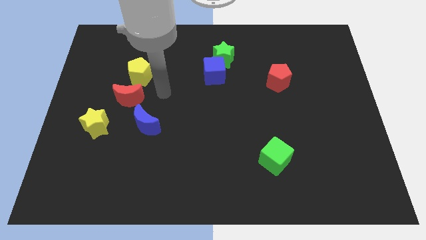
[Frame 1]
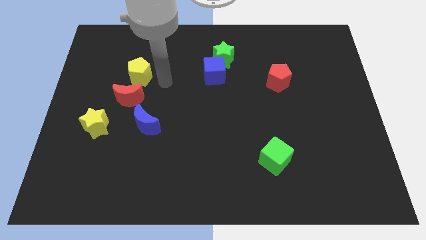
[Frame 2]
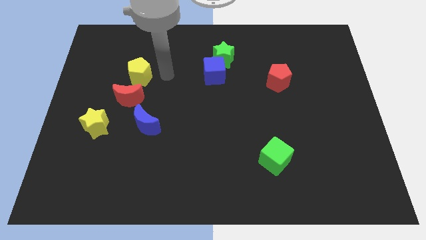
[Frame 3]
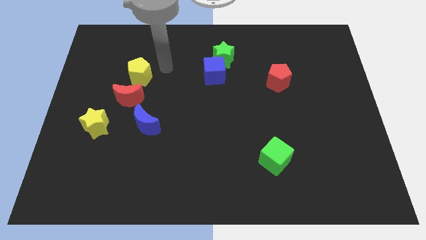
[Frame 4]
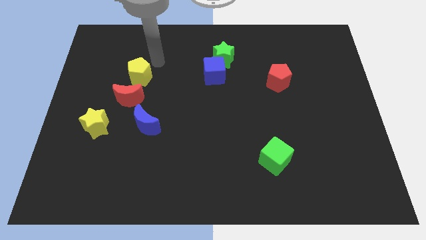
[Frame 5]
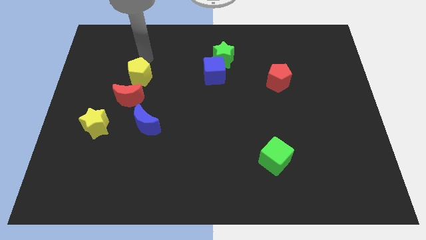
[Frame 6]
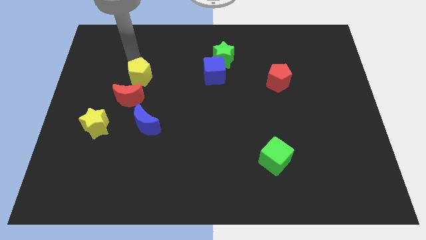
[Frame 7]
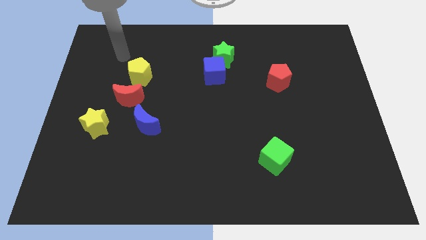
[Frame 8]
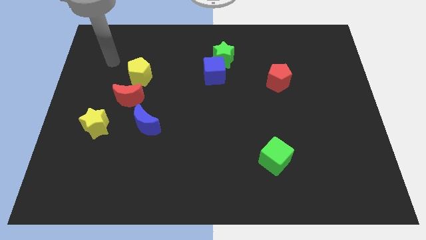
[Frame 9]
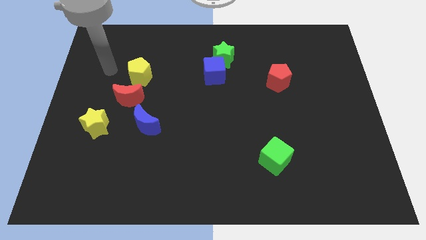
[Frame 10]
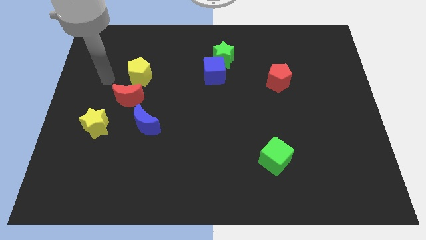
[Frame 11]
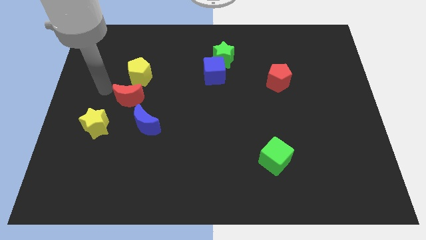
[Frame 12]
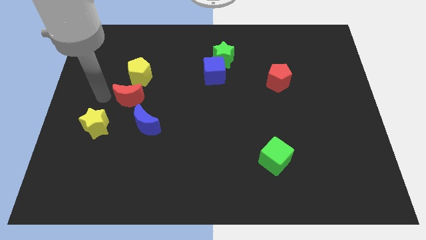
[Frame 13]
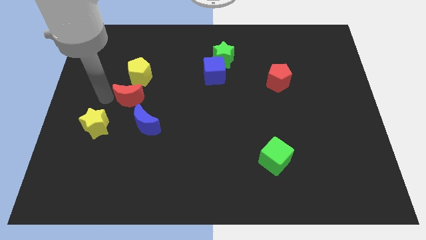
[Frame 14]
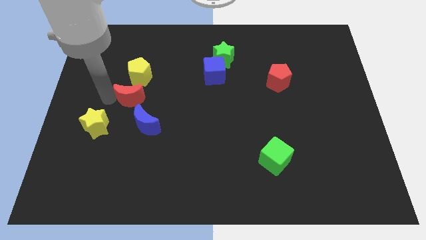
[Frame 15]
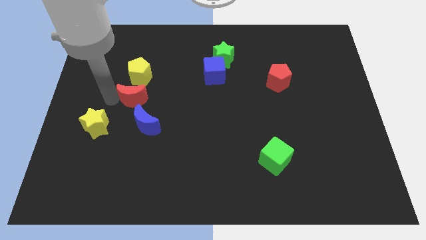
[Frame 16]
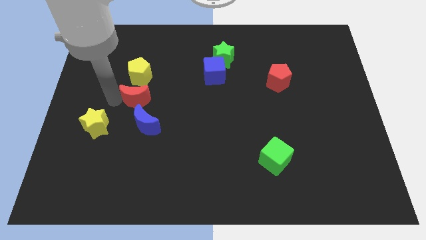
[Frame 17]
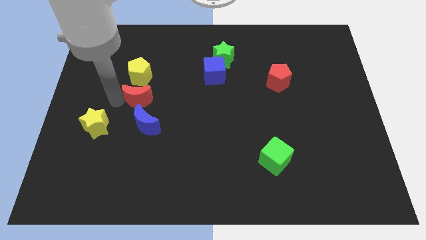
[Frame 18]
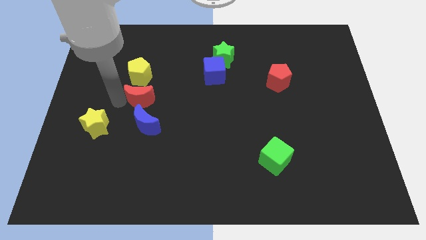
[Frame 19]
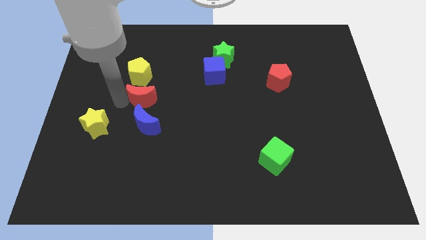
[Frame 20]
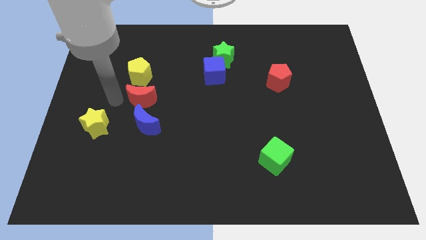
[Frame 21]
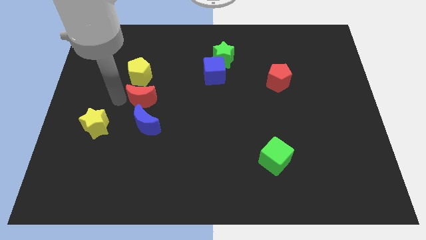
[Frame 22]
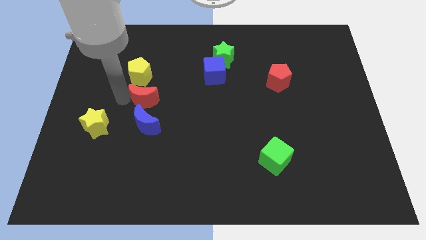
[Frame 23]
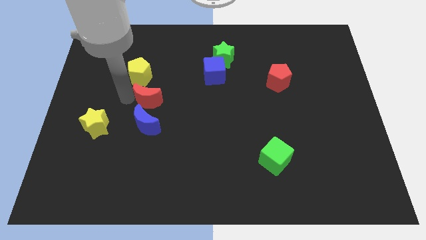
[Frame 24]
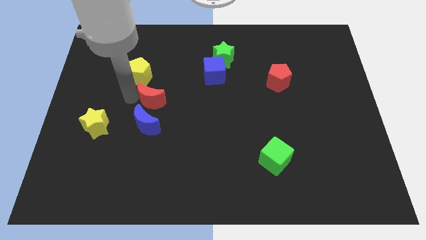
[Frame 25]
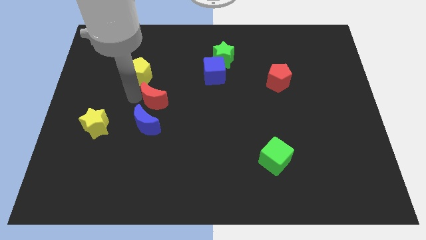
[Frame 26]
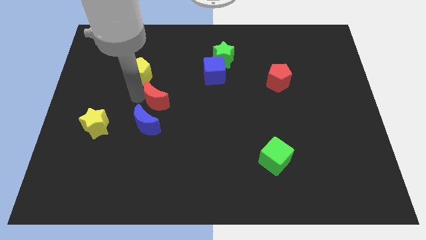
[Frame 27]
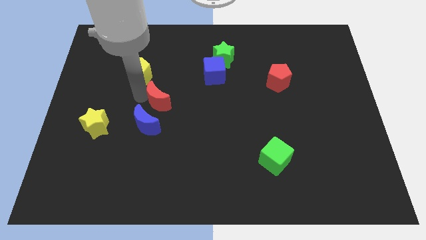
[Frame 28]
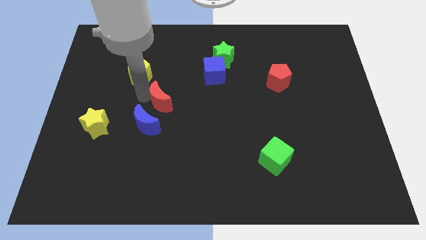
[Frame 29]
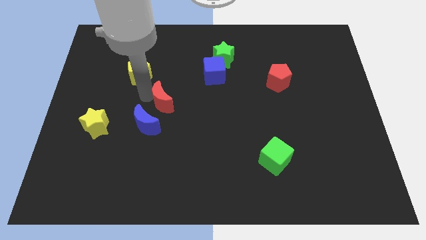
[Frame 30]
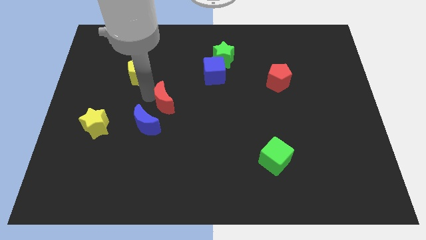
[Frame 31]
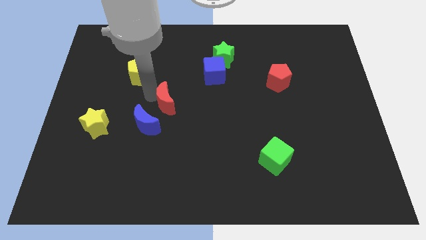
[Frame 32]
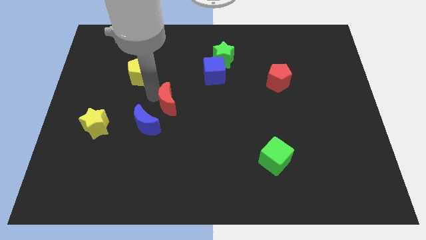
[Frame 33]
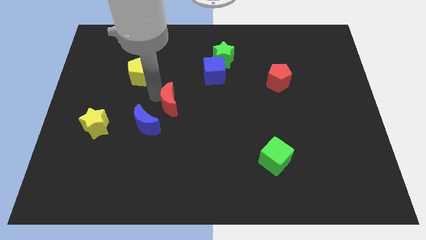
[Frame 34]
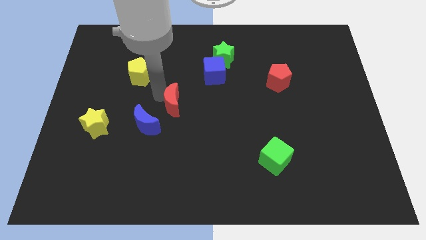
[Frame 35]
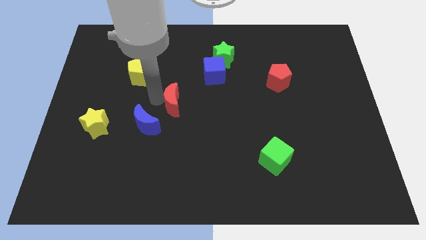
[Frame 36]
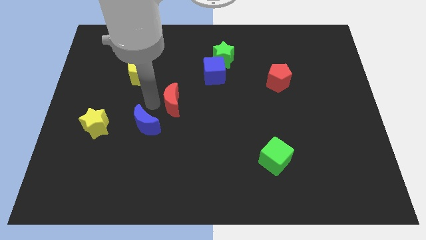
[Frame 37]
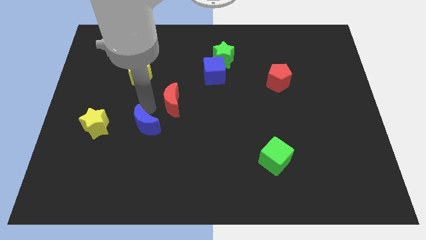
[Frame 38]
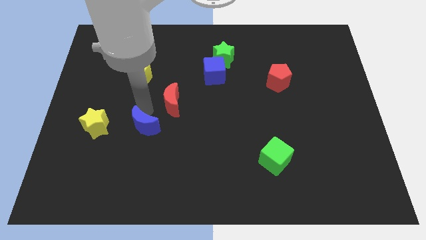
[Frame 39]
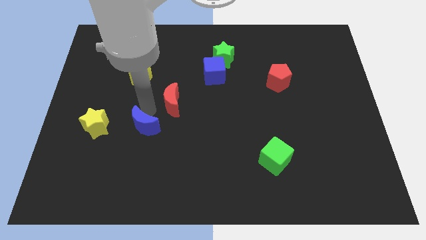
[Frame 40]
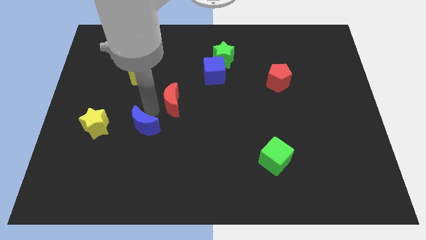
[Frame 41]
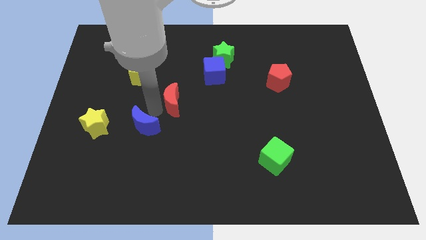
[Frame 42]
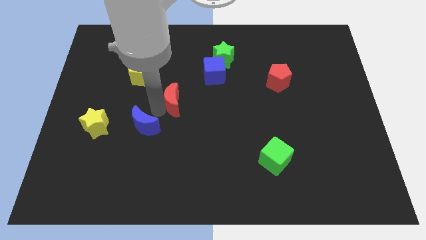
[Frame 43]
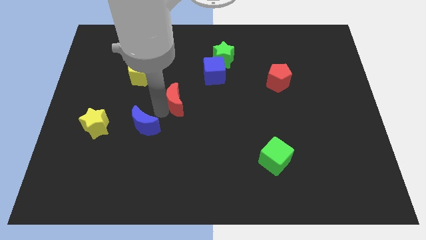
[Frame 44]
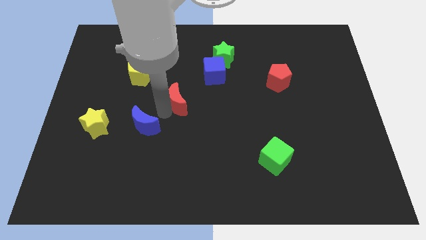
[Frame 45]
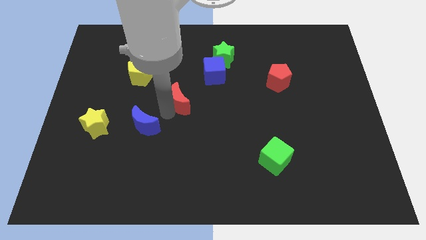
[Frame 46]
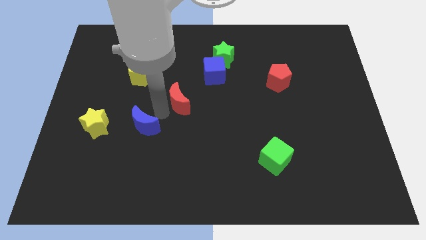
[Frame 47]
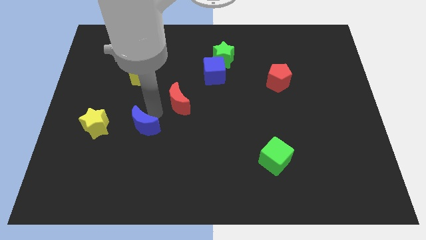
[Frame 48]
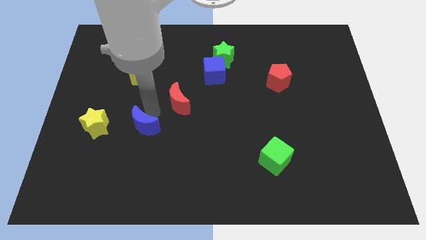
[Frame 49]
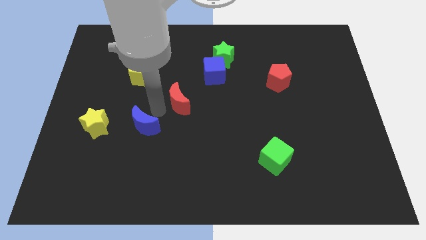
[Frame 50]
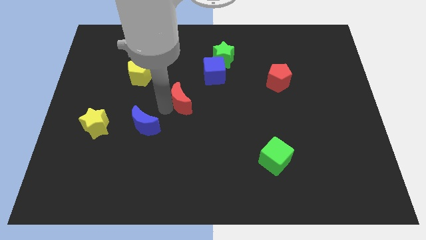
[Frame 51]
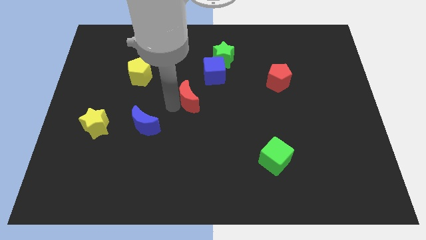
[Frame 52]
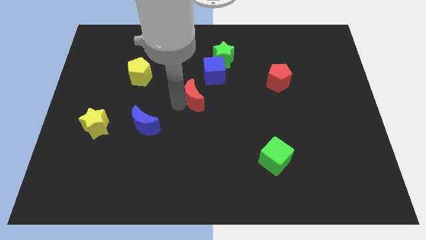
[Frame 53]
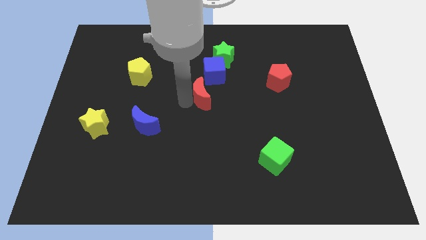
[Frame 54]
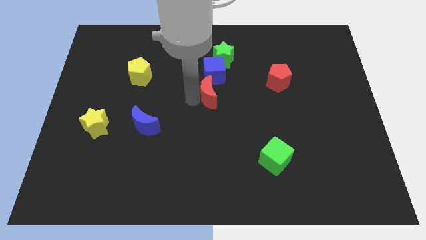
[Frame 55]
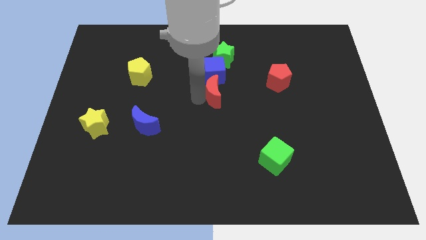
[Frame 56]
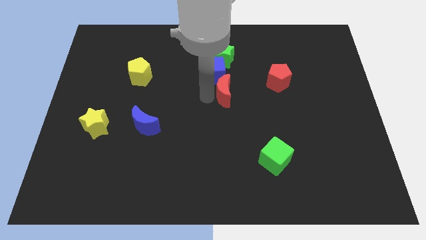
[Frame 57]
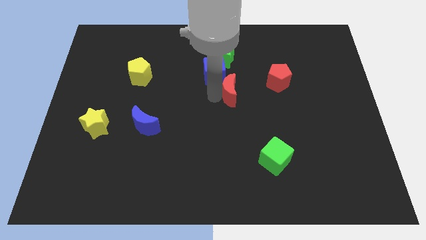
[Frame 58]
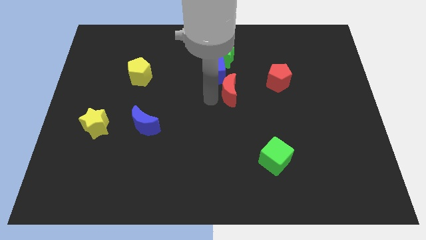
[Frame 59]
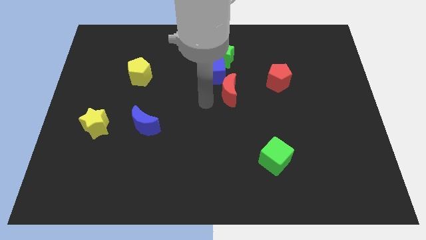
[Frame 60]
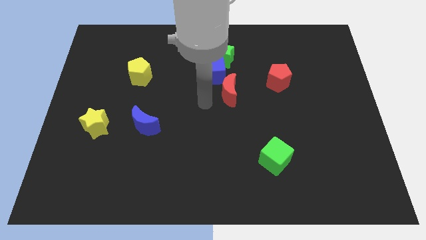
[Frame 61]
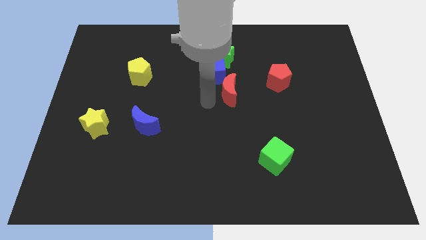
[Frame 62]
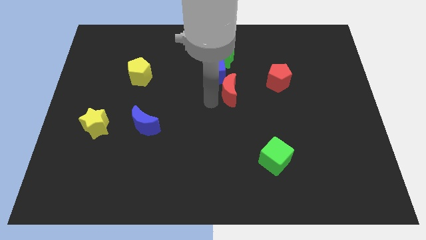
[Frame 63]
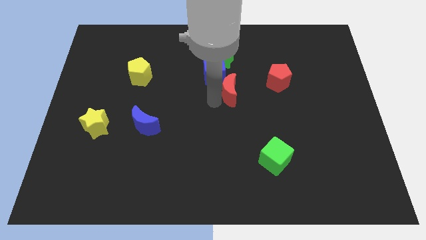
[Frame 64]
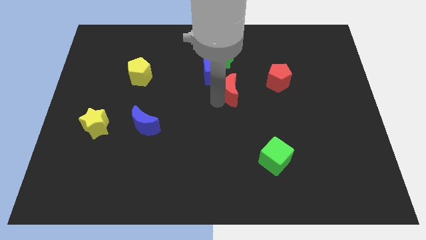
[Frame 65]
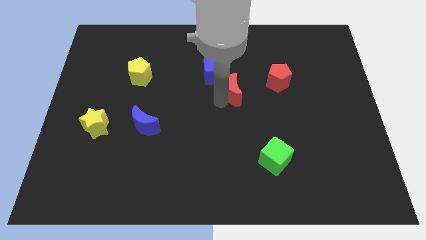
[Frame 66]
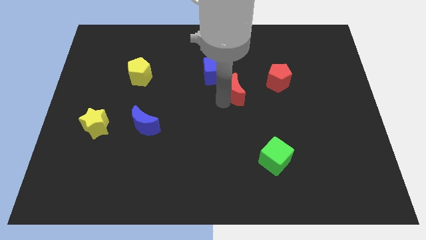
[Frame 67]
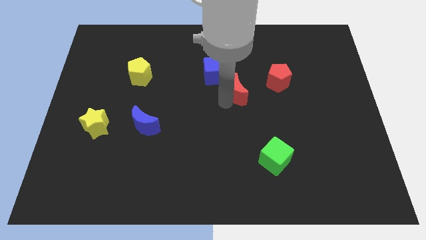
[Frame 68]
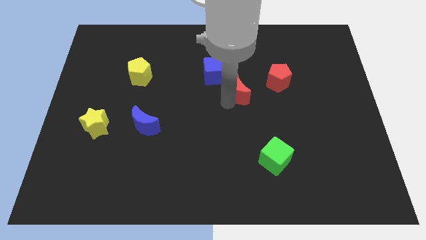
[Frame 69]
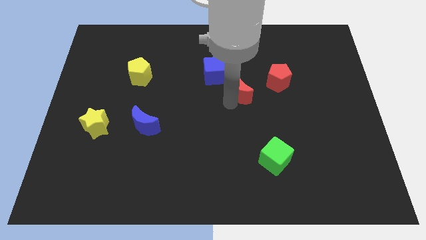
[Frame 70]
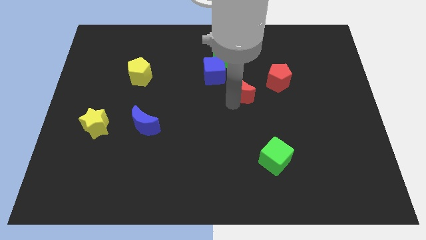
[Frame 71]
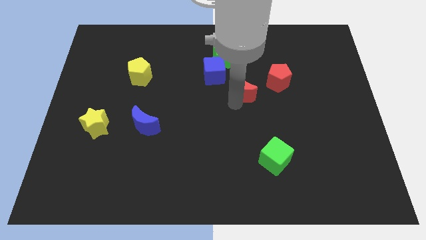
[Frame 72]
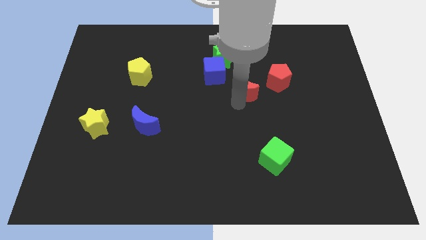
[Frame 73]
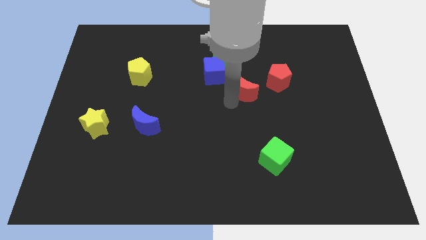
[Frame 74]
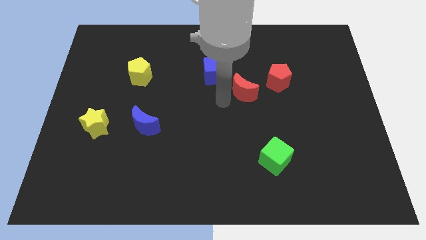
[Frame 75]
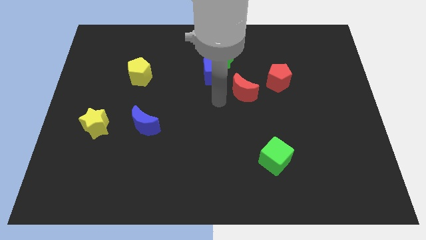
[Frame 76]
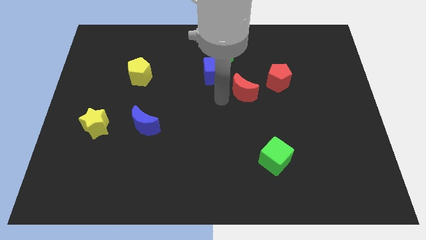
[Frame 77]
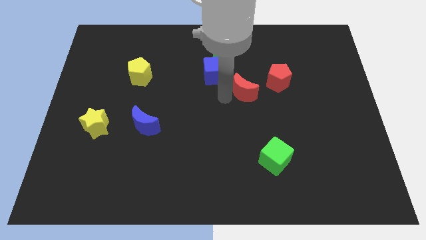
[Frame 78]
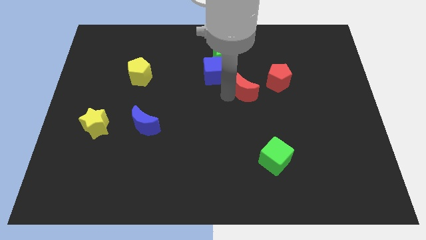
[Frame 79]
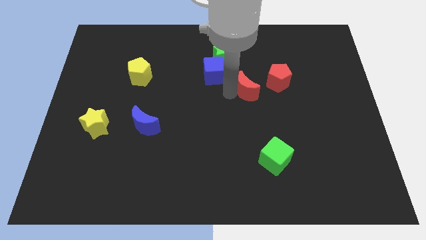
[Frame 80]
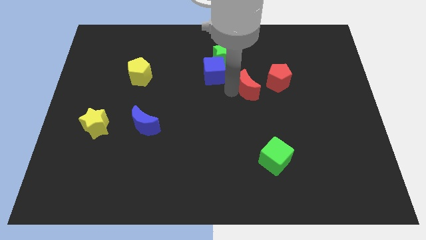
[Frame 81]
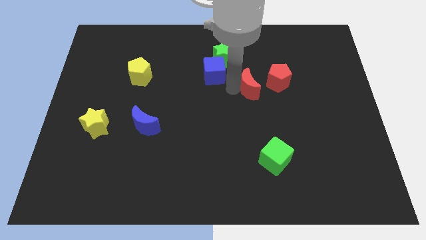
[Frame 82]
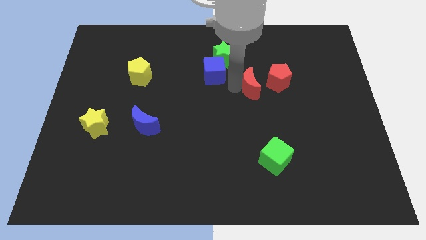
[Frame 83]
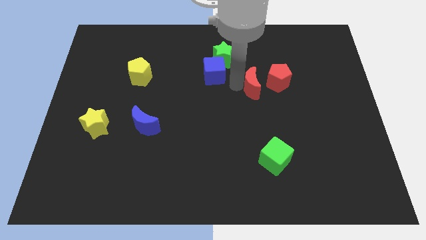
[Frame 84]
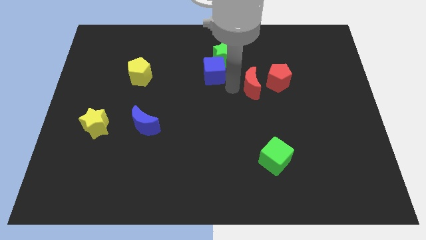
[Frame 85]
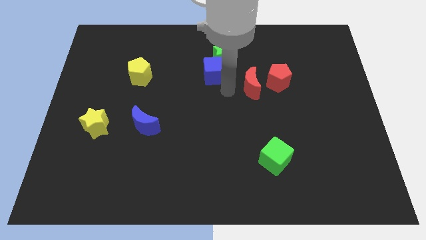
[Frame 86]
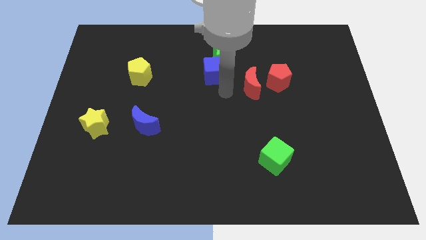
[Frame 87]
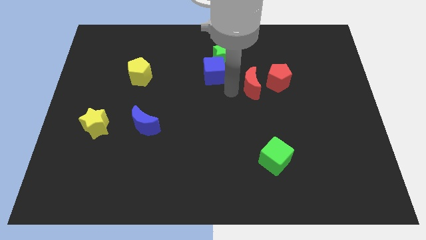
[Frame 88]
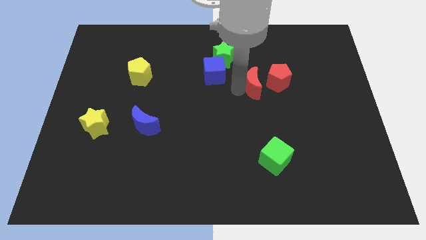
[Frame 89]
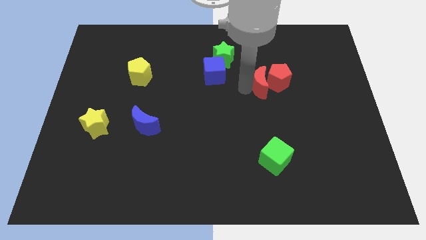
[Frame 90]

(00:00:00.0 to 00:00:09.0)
push the red moon towards the red pentagon
